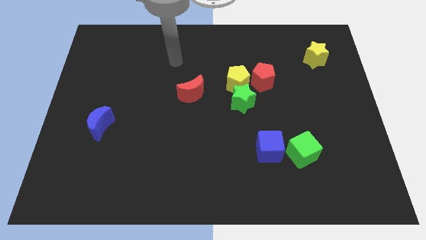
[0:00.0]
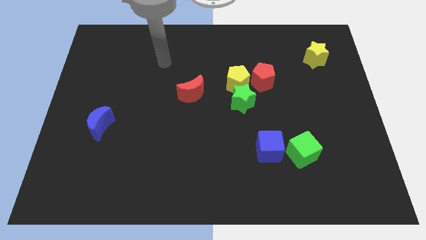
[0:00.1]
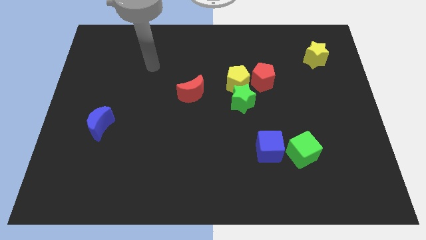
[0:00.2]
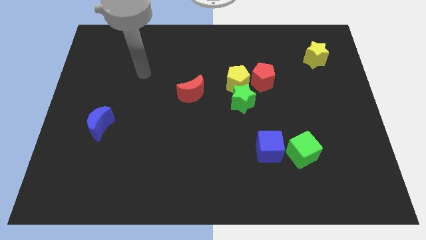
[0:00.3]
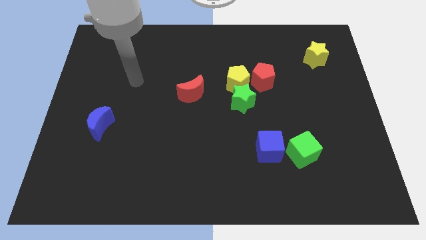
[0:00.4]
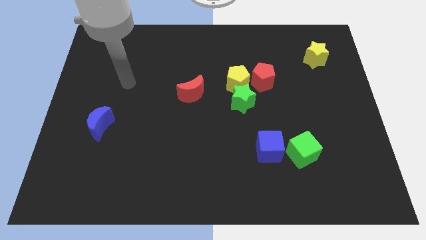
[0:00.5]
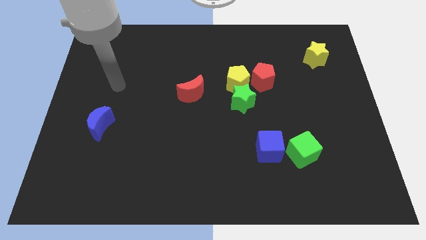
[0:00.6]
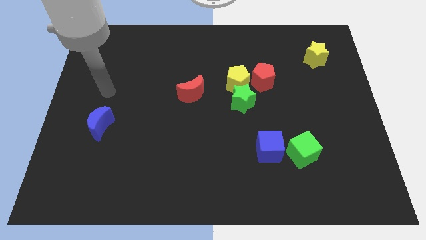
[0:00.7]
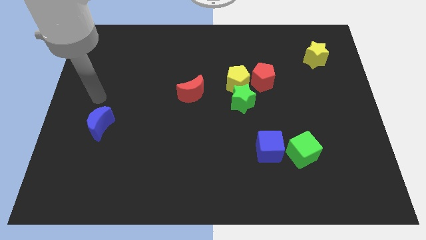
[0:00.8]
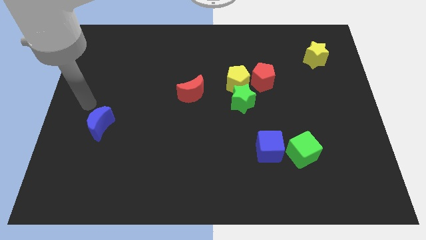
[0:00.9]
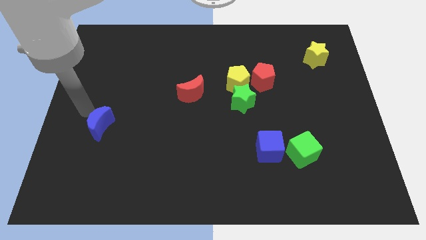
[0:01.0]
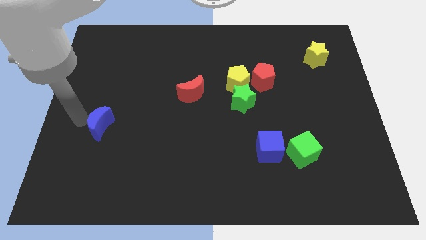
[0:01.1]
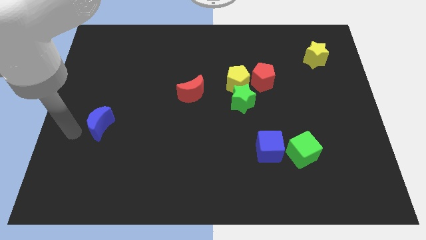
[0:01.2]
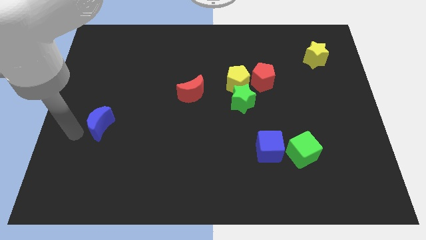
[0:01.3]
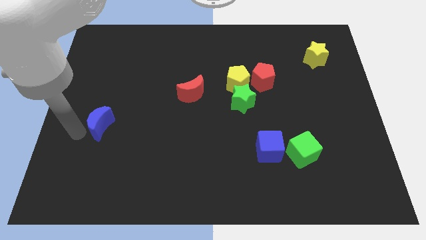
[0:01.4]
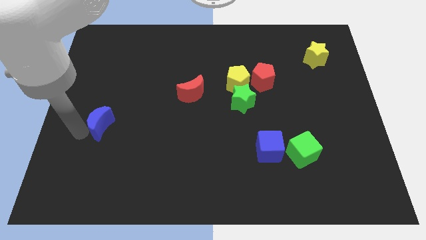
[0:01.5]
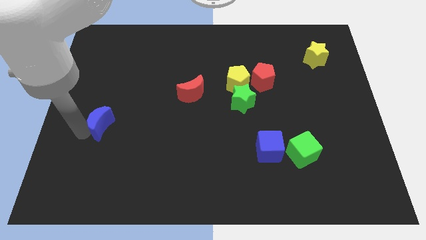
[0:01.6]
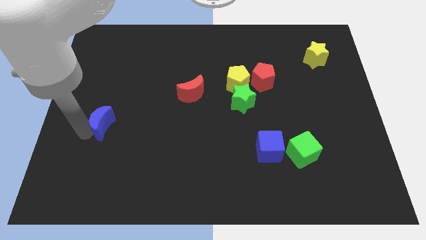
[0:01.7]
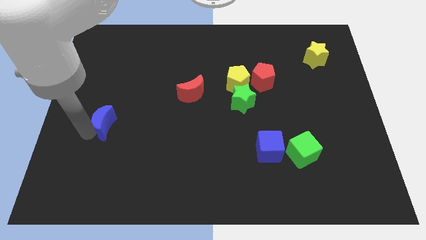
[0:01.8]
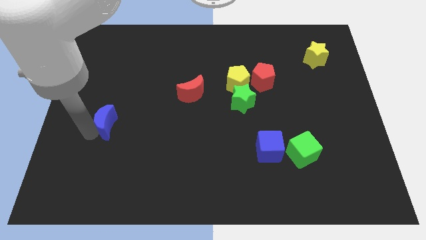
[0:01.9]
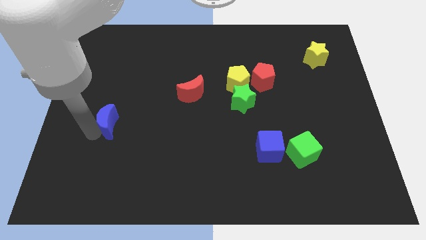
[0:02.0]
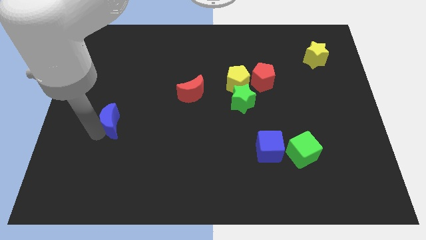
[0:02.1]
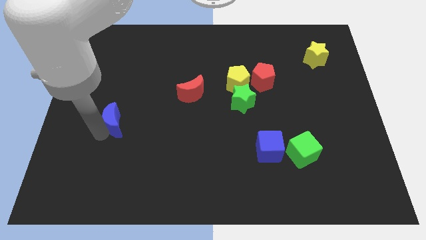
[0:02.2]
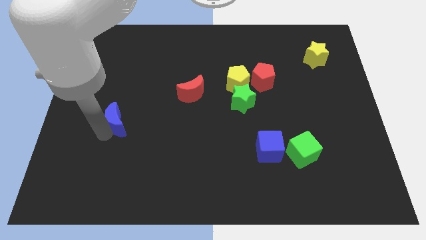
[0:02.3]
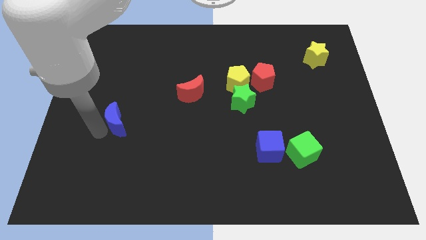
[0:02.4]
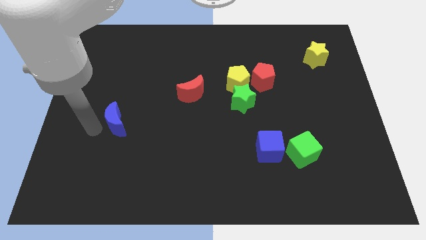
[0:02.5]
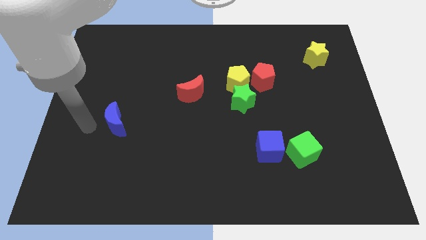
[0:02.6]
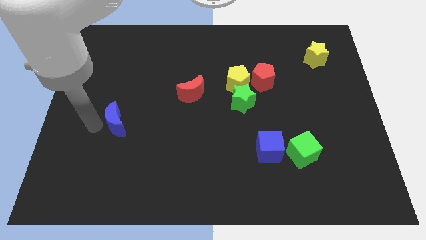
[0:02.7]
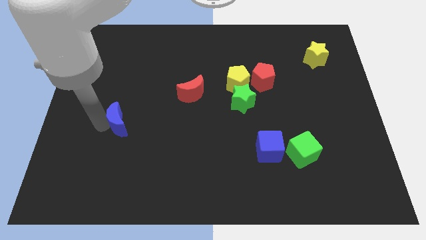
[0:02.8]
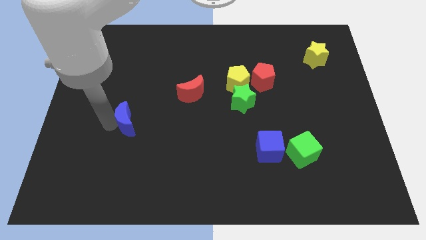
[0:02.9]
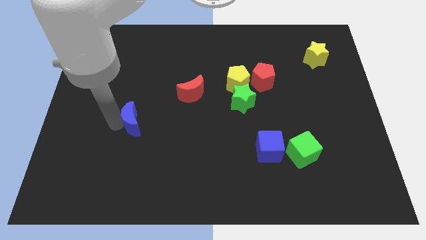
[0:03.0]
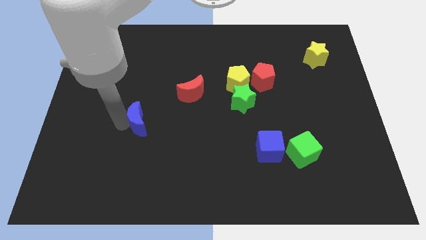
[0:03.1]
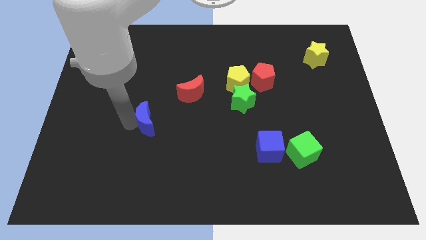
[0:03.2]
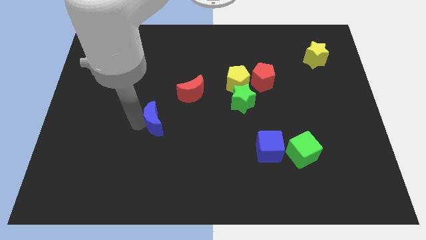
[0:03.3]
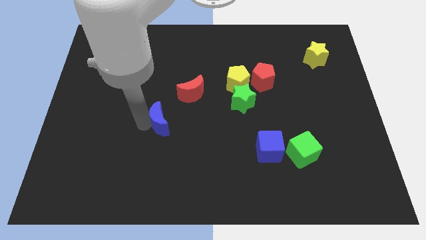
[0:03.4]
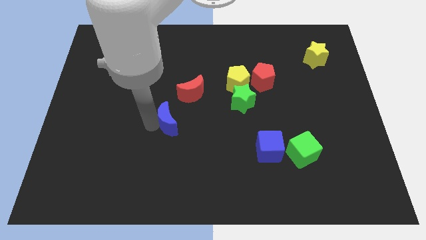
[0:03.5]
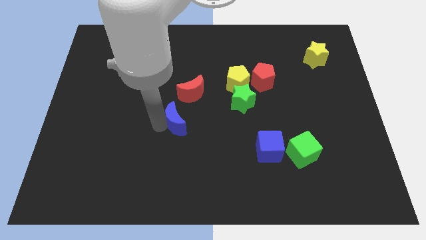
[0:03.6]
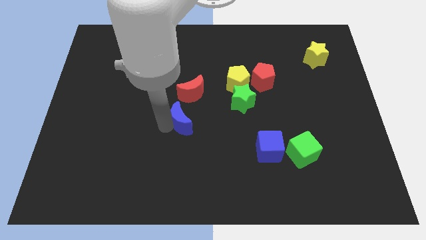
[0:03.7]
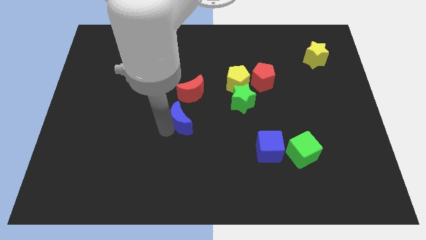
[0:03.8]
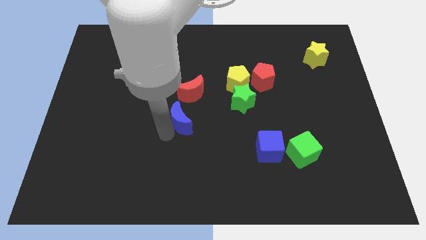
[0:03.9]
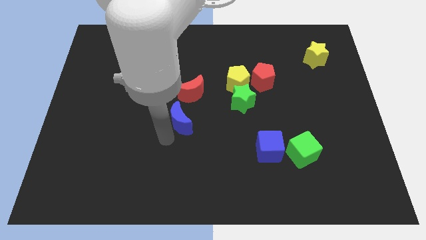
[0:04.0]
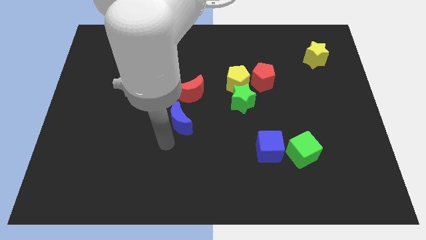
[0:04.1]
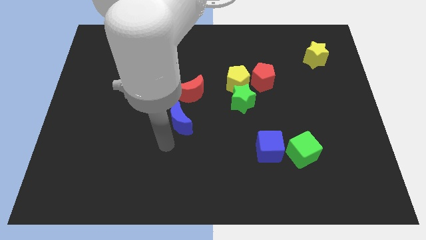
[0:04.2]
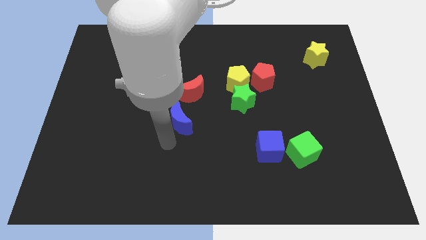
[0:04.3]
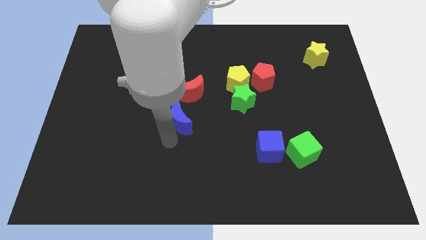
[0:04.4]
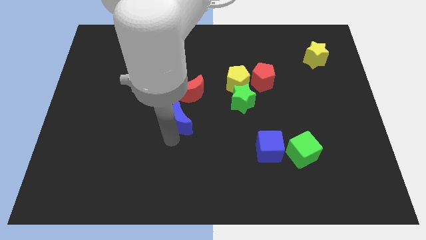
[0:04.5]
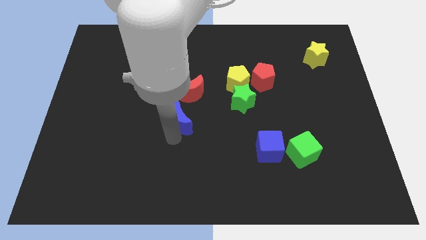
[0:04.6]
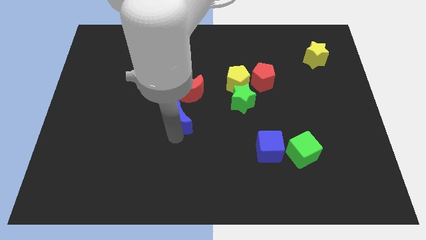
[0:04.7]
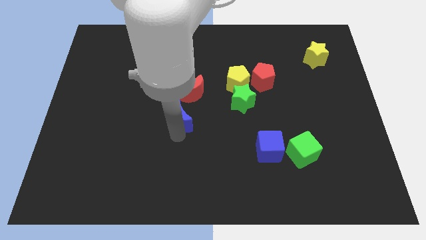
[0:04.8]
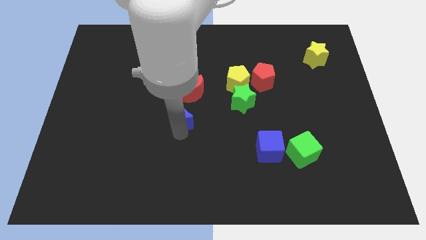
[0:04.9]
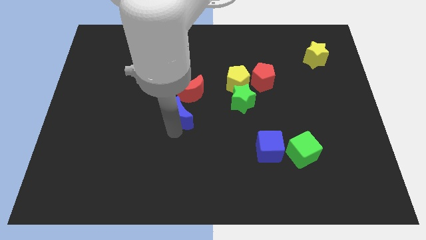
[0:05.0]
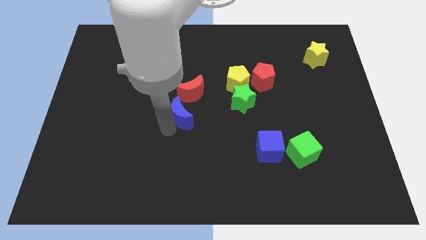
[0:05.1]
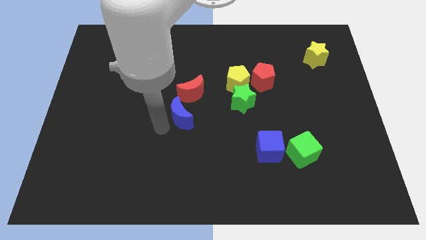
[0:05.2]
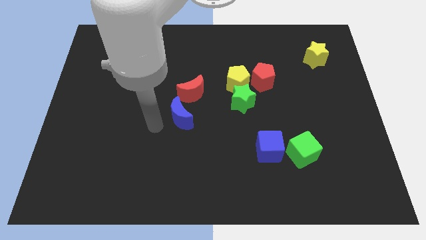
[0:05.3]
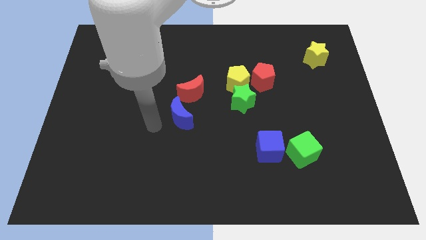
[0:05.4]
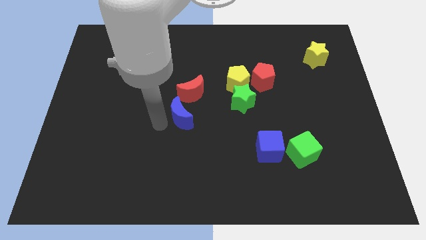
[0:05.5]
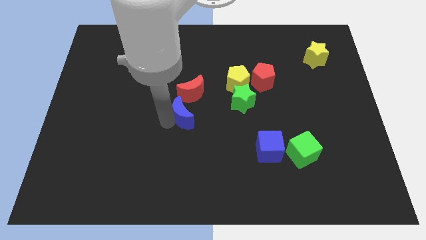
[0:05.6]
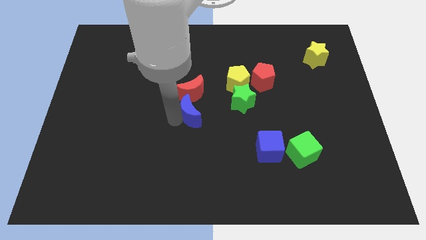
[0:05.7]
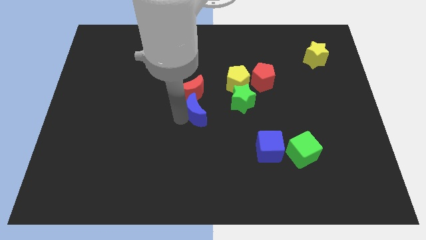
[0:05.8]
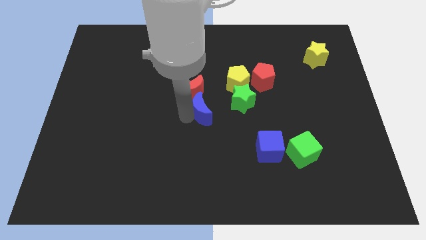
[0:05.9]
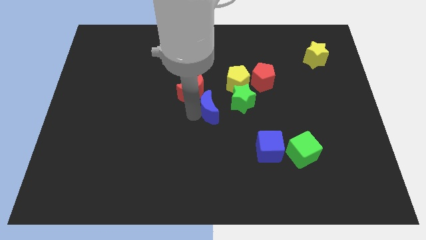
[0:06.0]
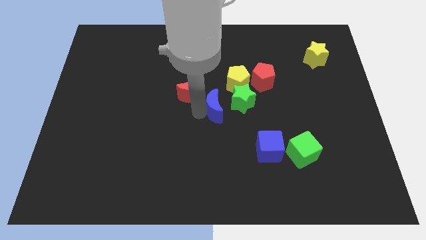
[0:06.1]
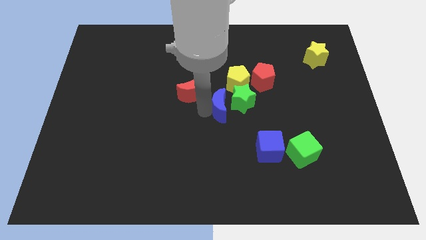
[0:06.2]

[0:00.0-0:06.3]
put the blue moon to the green star

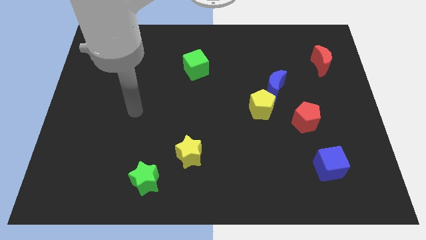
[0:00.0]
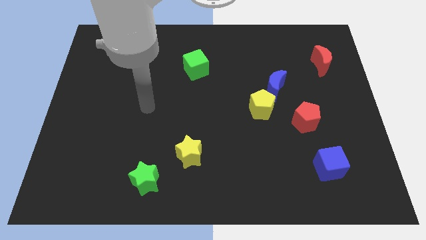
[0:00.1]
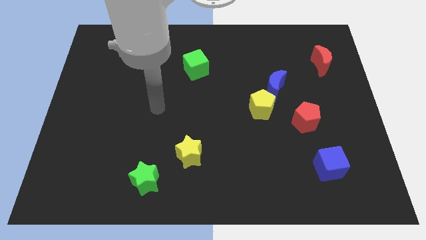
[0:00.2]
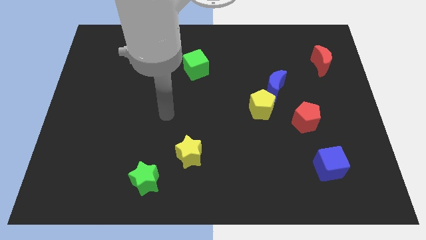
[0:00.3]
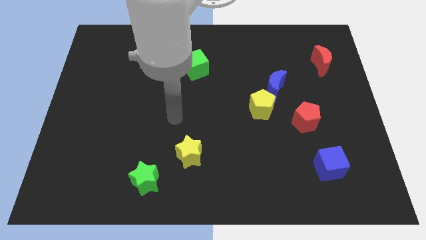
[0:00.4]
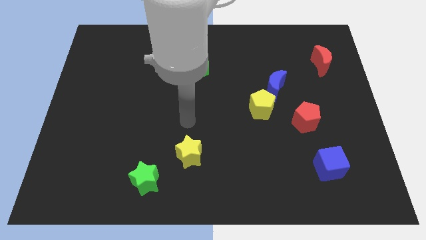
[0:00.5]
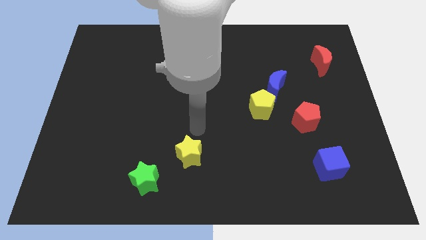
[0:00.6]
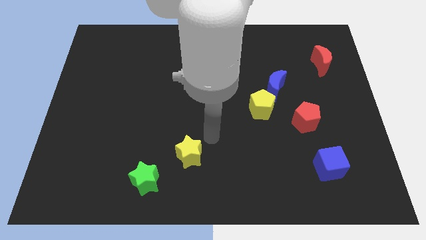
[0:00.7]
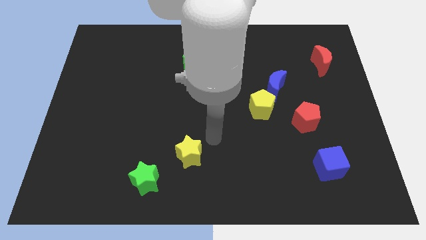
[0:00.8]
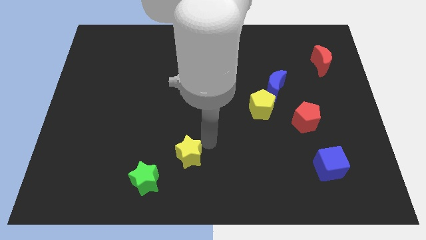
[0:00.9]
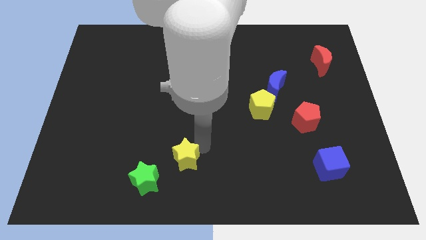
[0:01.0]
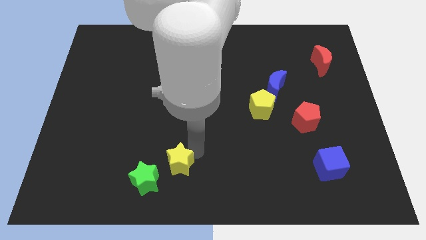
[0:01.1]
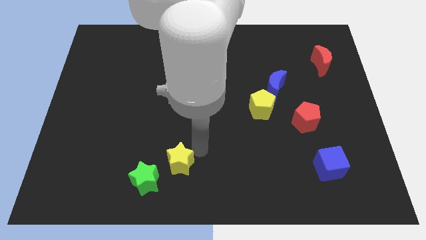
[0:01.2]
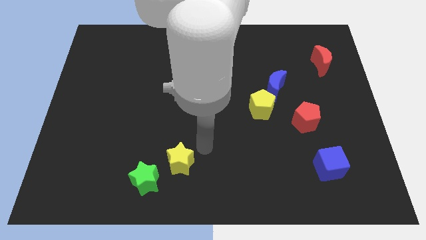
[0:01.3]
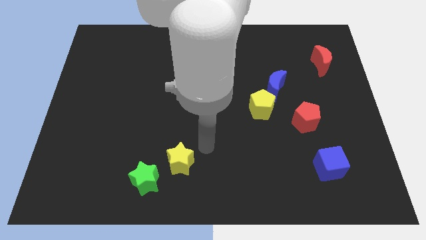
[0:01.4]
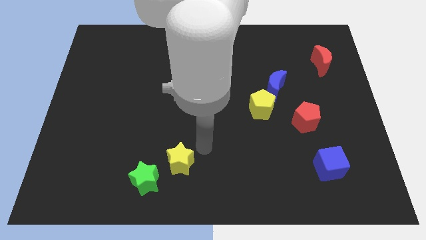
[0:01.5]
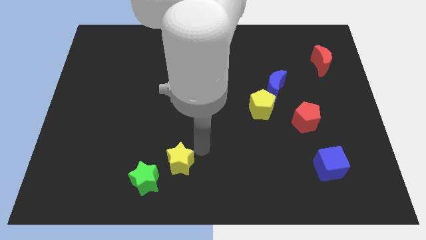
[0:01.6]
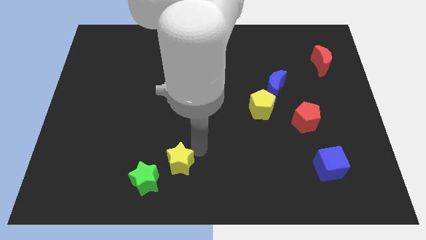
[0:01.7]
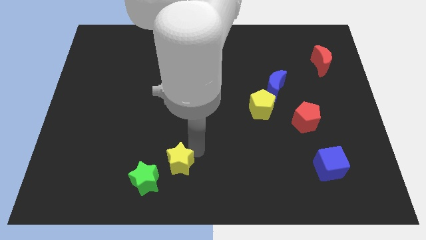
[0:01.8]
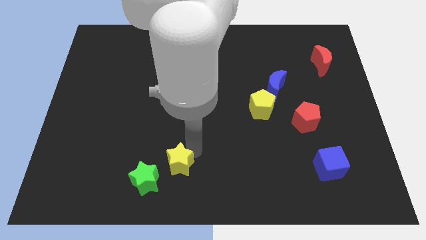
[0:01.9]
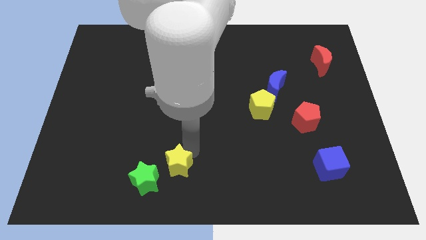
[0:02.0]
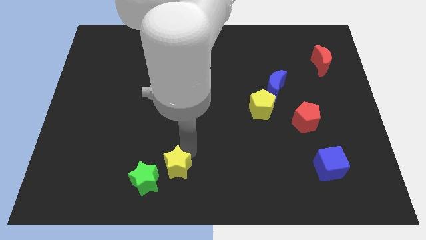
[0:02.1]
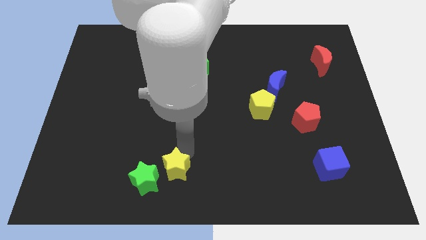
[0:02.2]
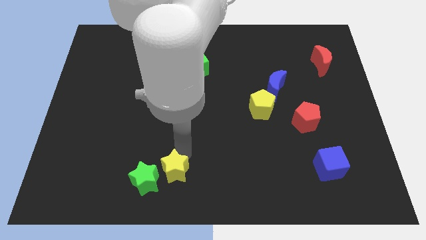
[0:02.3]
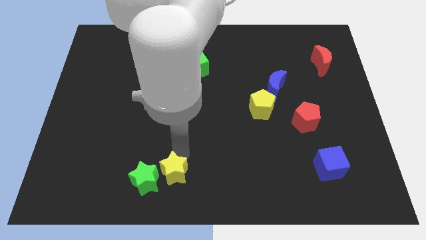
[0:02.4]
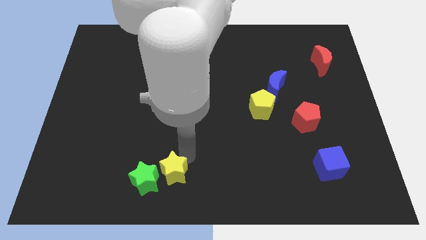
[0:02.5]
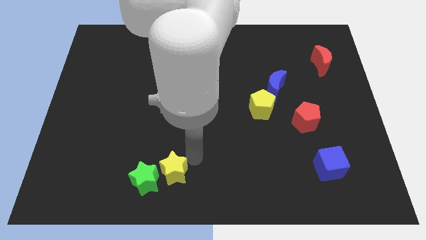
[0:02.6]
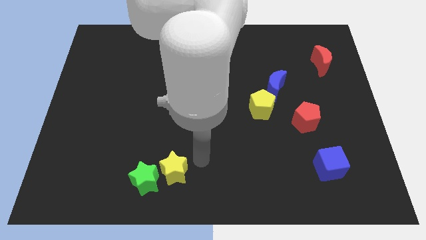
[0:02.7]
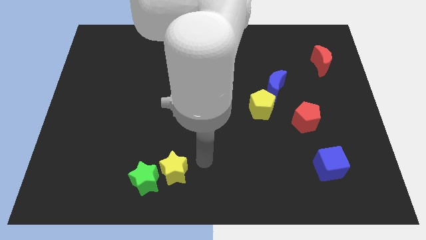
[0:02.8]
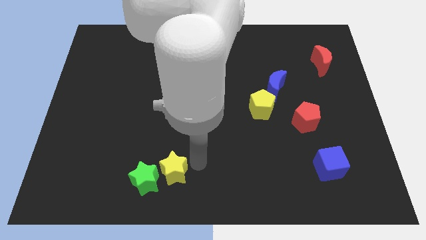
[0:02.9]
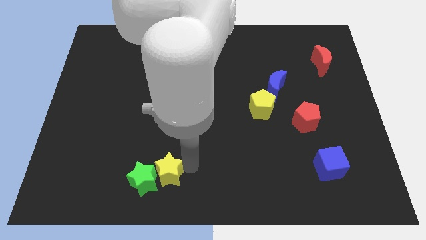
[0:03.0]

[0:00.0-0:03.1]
move the yellow star close to the green star
